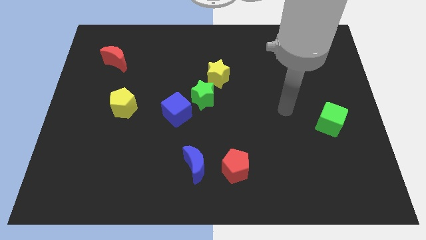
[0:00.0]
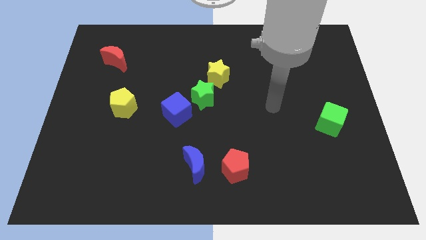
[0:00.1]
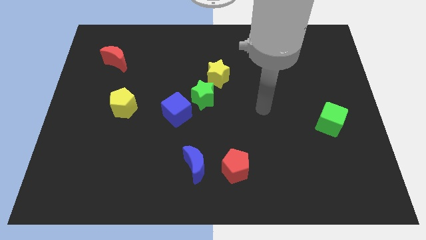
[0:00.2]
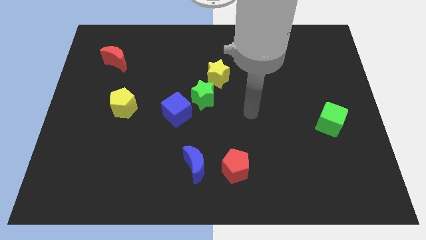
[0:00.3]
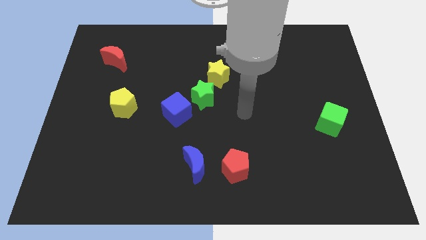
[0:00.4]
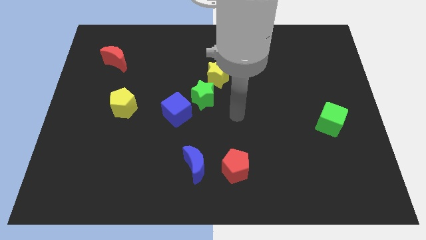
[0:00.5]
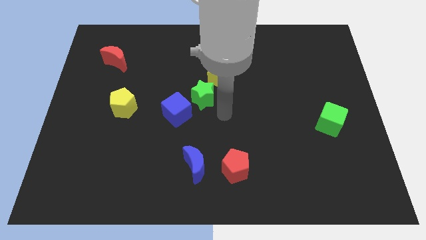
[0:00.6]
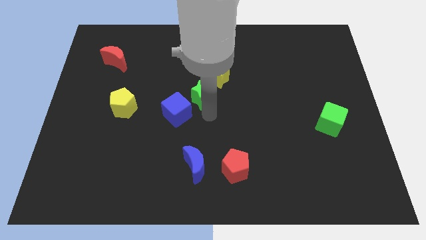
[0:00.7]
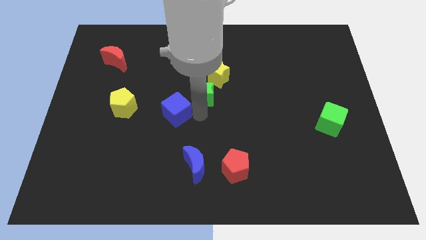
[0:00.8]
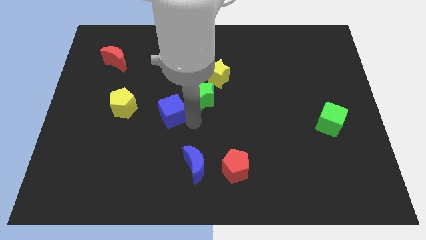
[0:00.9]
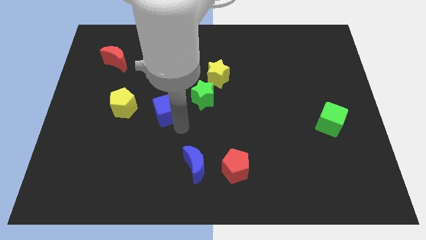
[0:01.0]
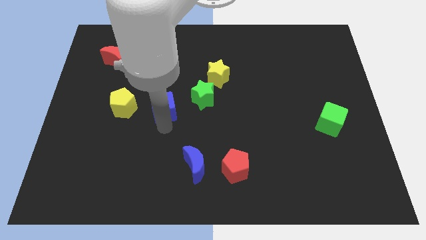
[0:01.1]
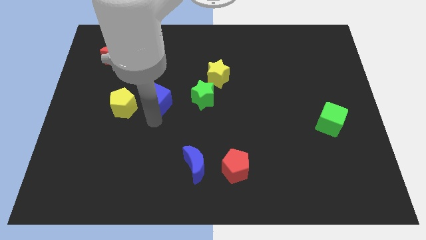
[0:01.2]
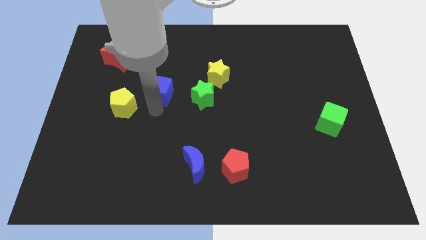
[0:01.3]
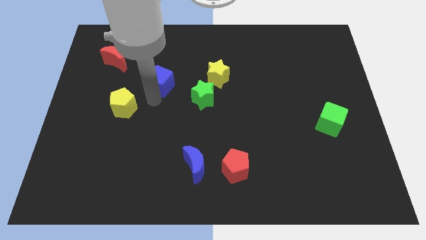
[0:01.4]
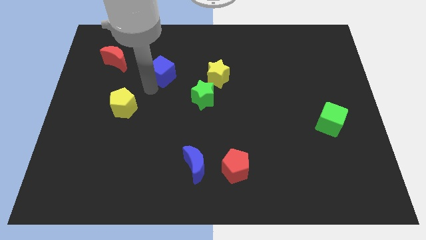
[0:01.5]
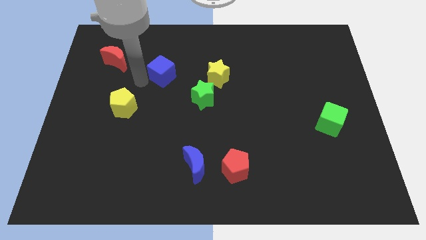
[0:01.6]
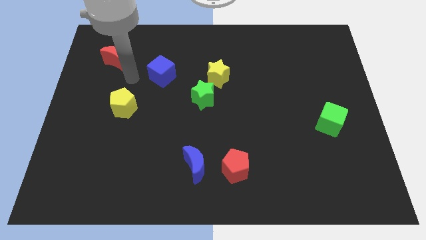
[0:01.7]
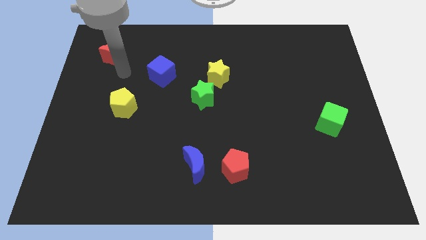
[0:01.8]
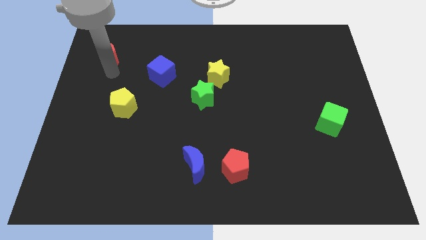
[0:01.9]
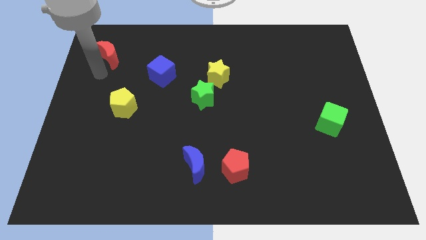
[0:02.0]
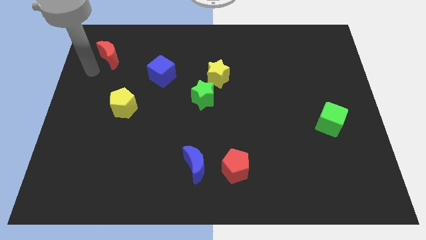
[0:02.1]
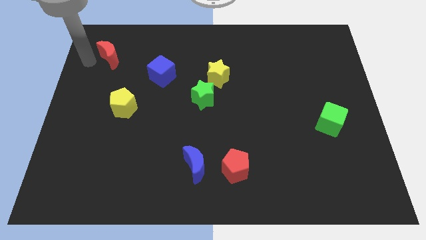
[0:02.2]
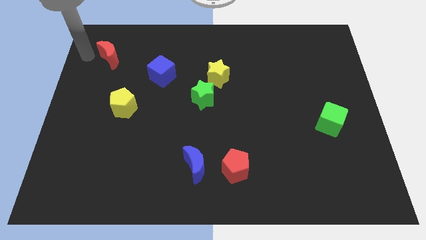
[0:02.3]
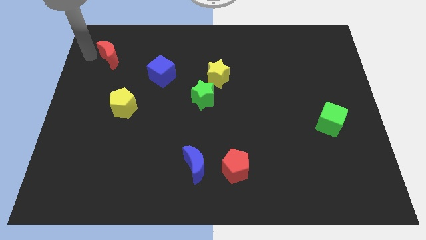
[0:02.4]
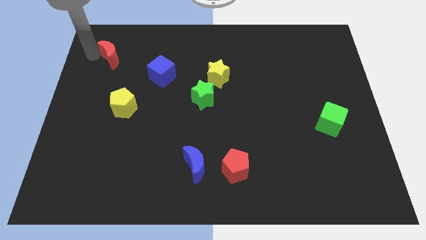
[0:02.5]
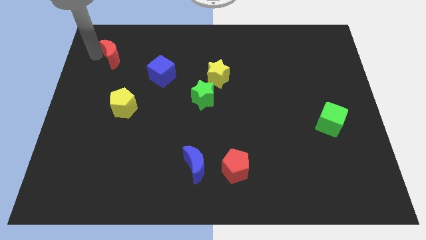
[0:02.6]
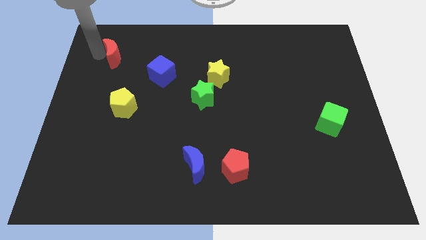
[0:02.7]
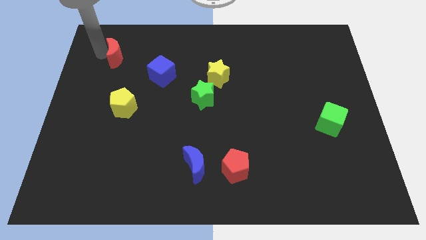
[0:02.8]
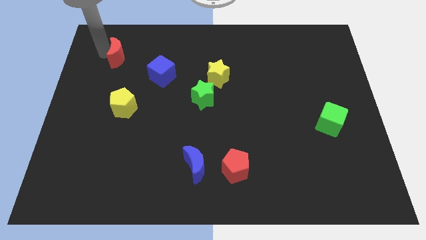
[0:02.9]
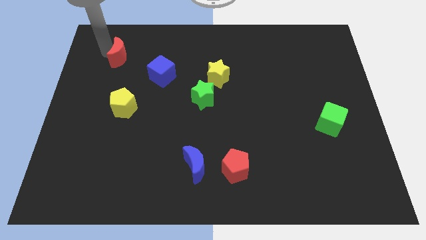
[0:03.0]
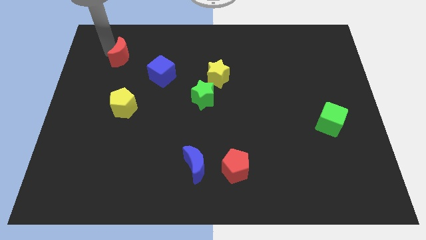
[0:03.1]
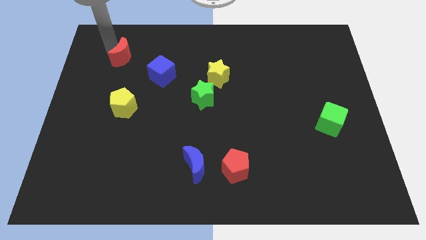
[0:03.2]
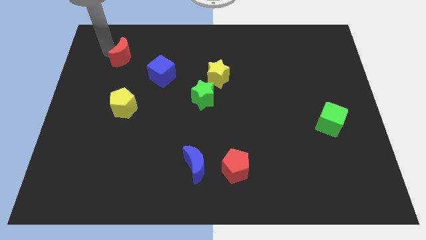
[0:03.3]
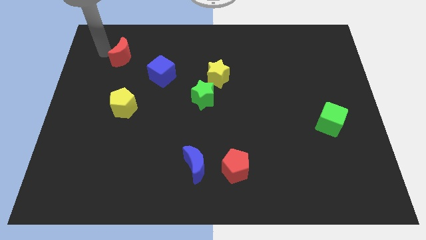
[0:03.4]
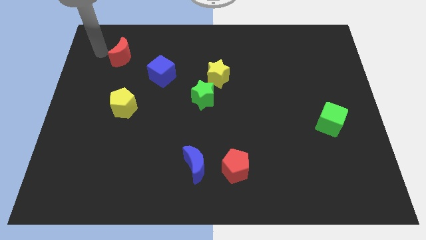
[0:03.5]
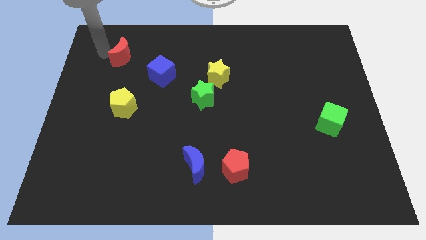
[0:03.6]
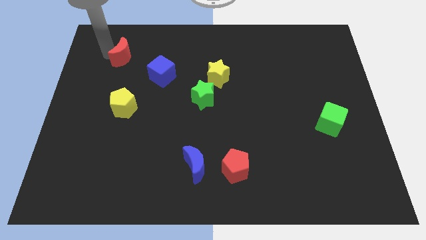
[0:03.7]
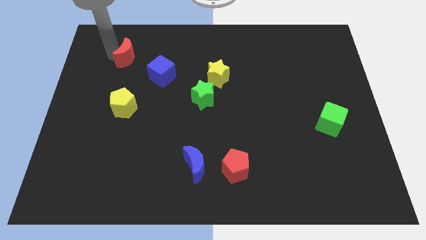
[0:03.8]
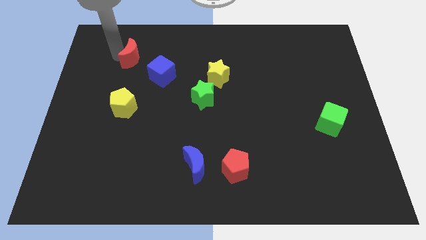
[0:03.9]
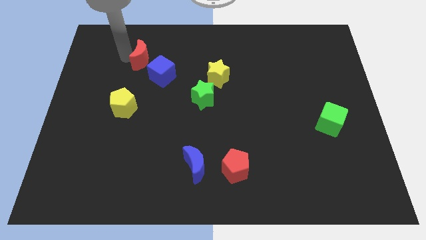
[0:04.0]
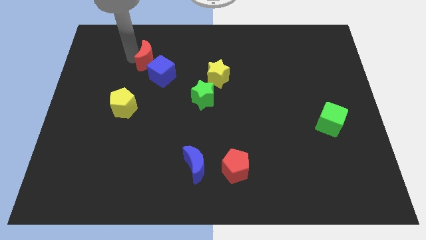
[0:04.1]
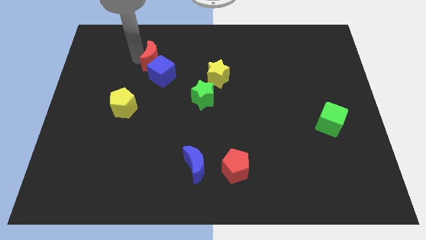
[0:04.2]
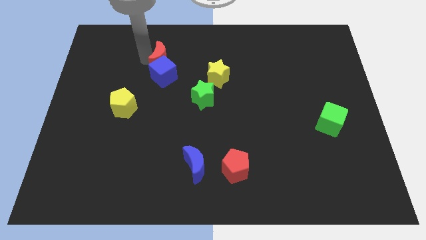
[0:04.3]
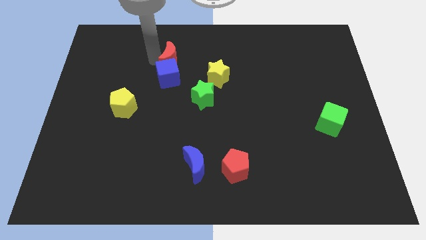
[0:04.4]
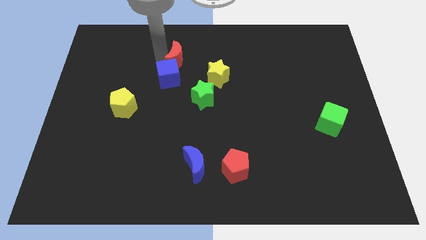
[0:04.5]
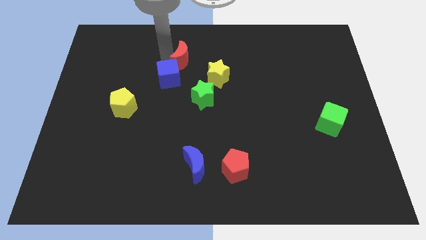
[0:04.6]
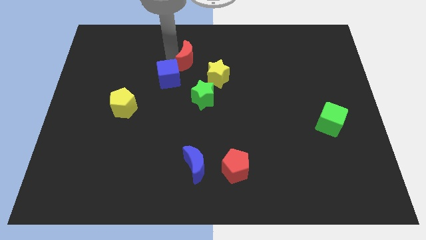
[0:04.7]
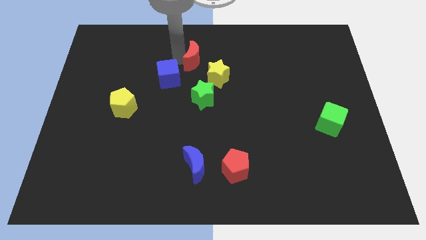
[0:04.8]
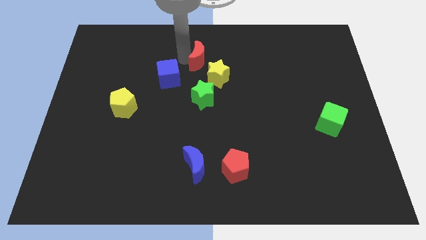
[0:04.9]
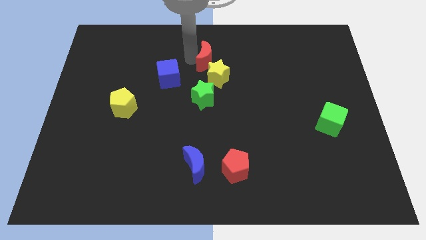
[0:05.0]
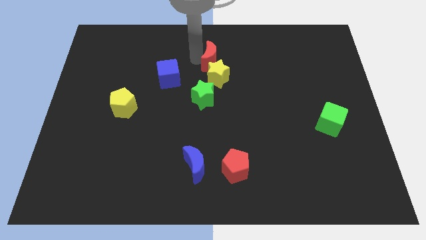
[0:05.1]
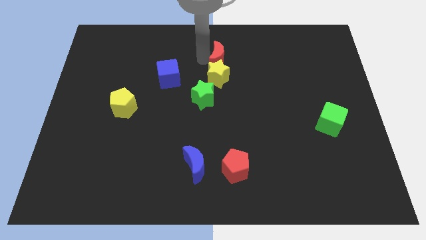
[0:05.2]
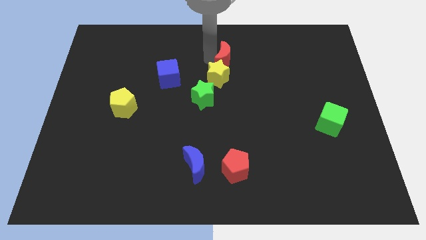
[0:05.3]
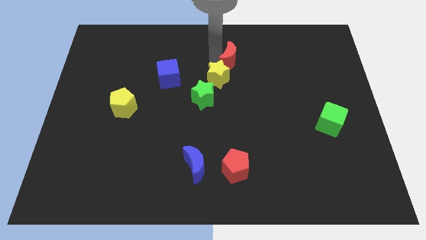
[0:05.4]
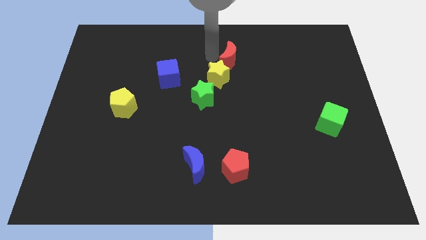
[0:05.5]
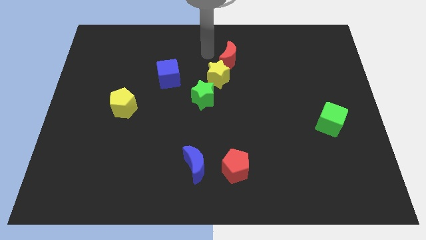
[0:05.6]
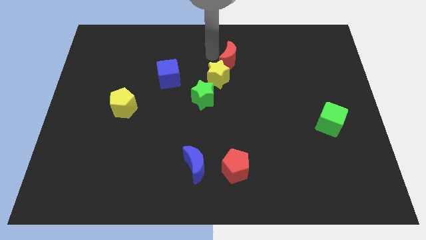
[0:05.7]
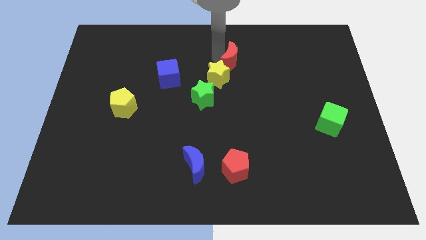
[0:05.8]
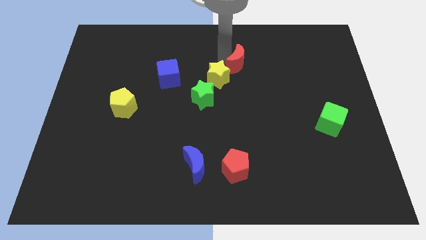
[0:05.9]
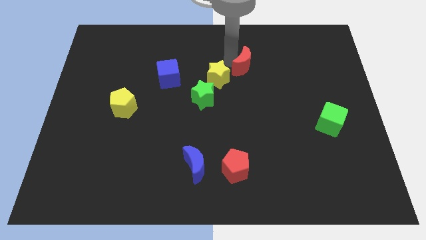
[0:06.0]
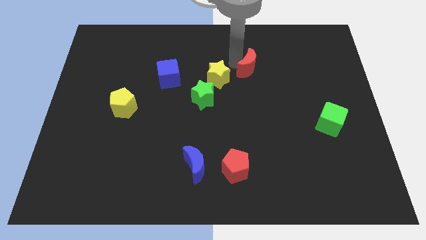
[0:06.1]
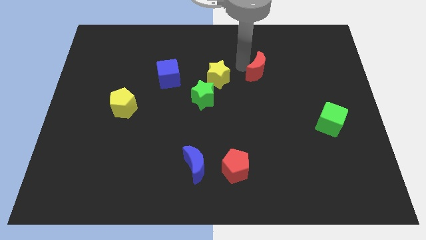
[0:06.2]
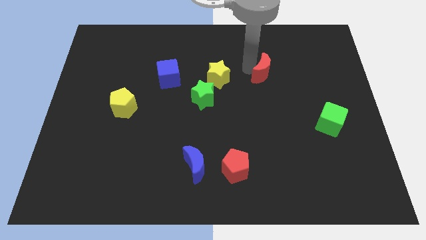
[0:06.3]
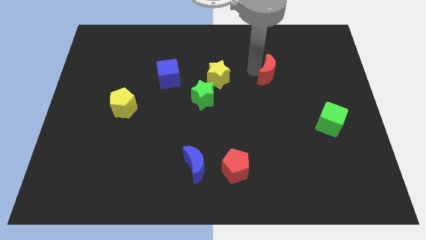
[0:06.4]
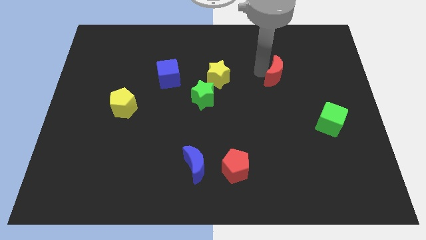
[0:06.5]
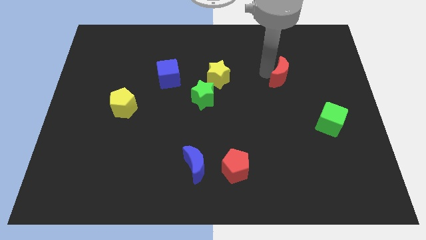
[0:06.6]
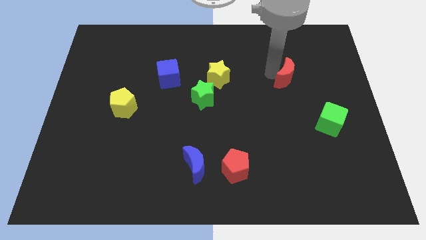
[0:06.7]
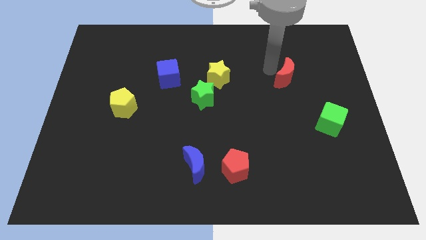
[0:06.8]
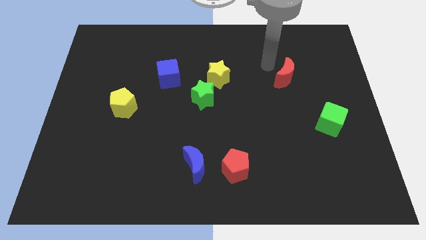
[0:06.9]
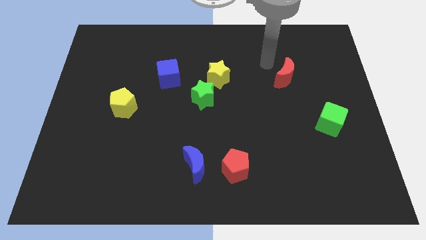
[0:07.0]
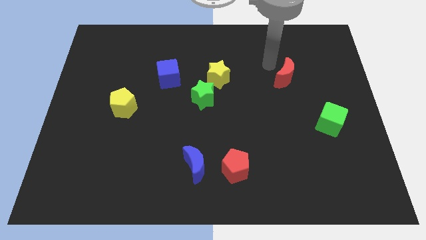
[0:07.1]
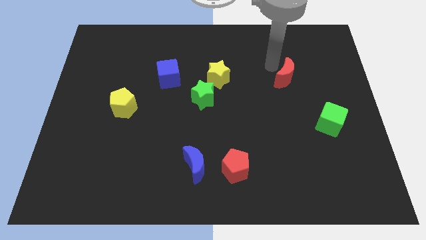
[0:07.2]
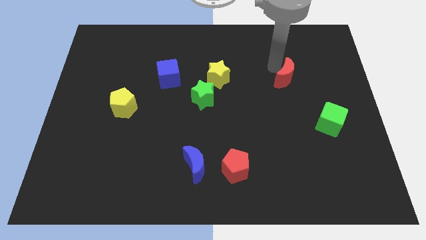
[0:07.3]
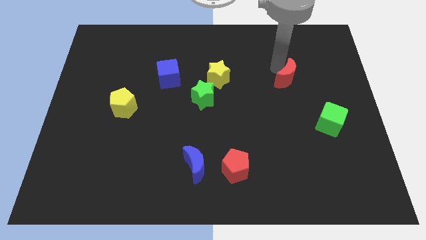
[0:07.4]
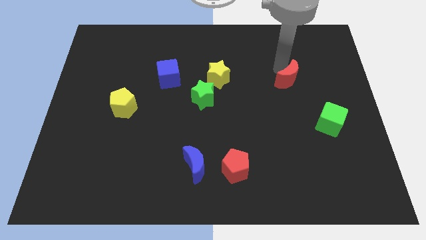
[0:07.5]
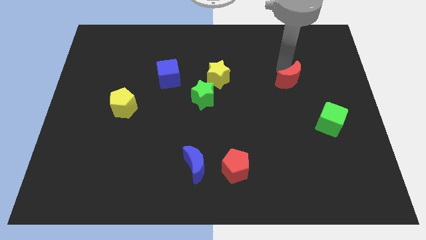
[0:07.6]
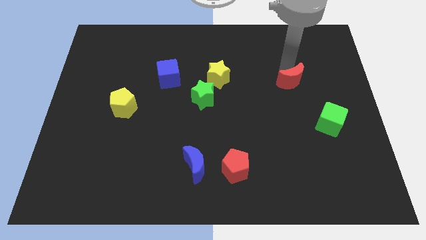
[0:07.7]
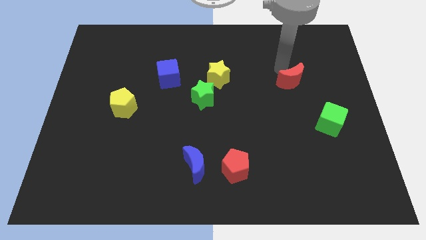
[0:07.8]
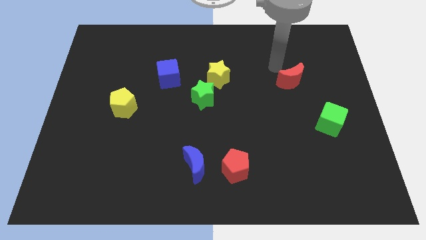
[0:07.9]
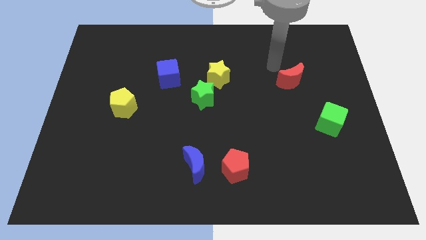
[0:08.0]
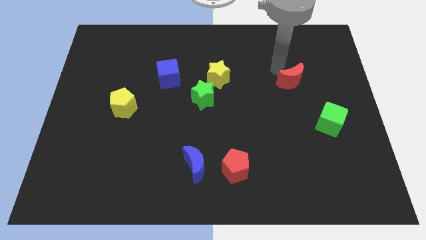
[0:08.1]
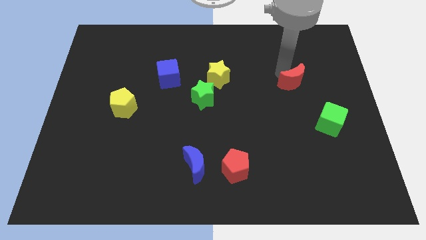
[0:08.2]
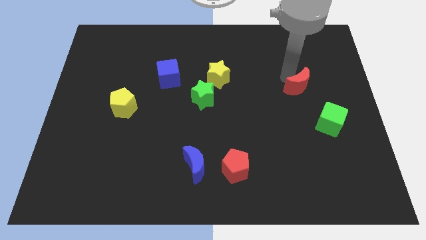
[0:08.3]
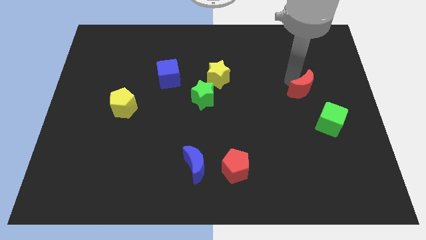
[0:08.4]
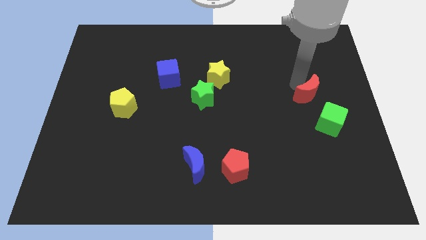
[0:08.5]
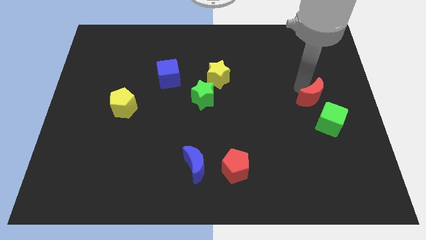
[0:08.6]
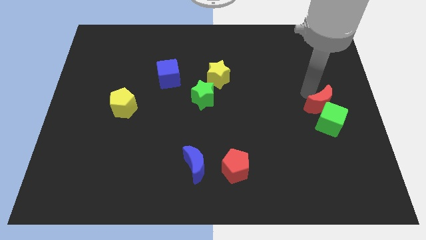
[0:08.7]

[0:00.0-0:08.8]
move the red moon next to the green cube
